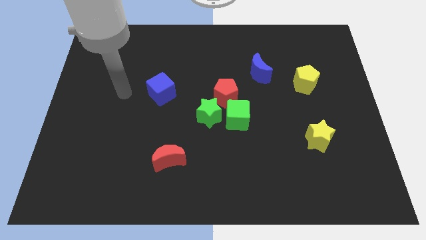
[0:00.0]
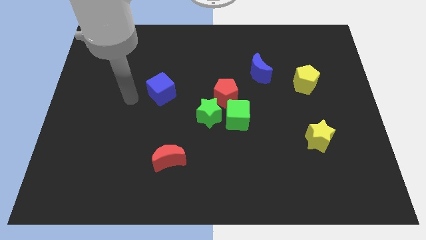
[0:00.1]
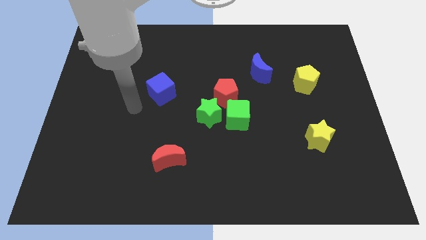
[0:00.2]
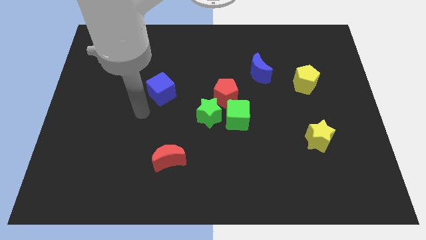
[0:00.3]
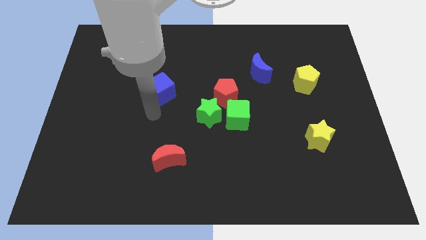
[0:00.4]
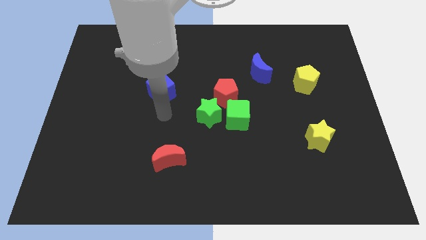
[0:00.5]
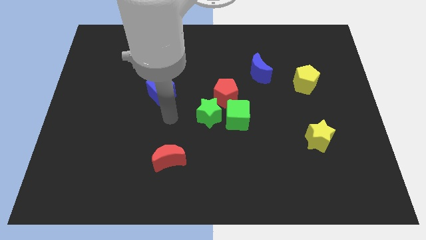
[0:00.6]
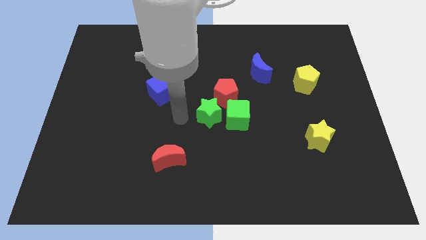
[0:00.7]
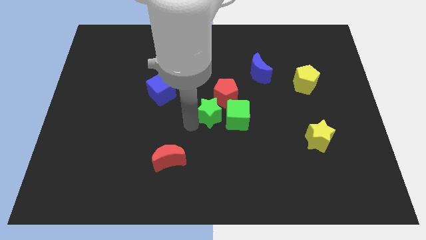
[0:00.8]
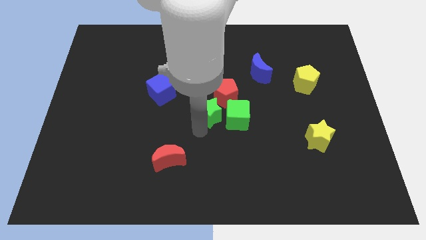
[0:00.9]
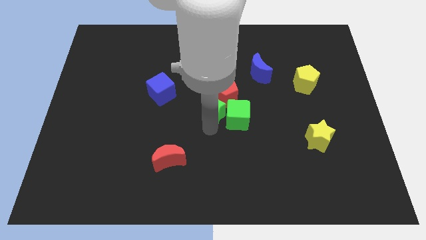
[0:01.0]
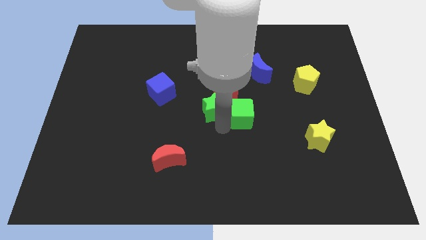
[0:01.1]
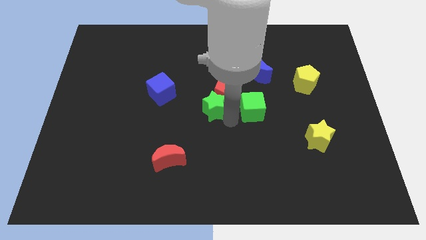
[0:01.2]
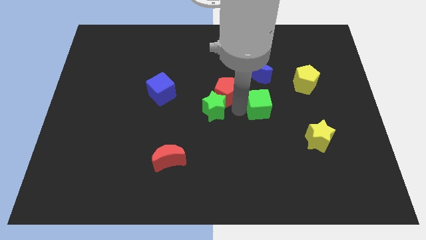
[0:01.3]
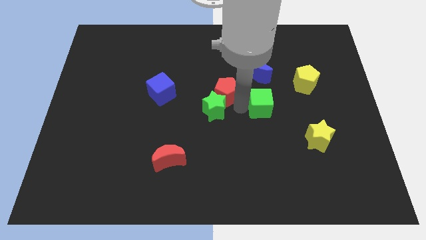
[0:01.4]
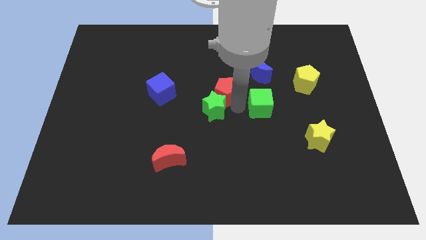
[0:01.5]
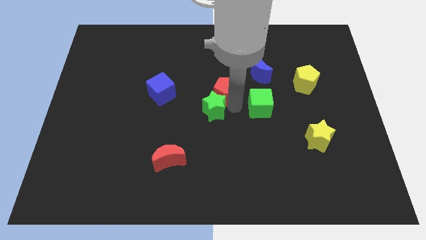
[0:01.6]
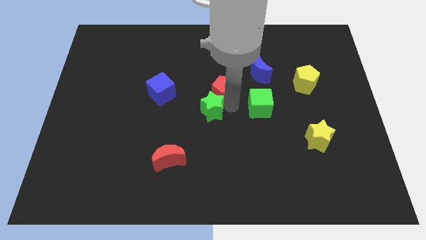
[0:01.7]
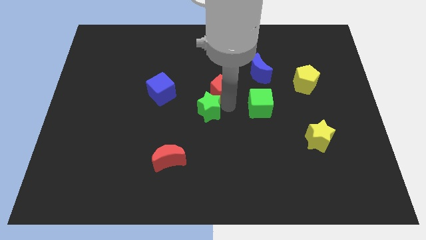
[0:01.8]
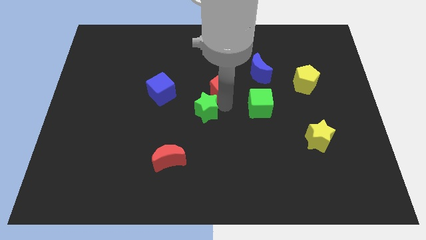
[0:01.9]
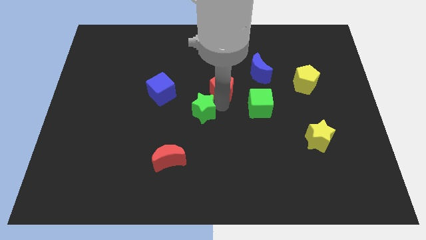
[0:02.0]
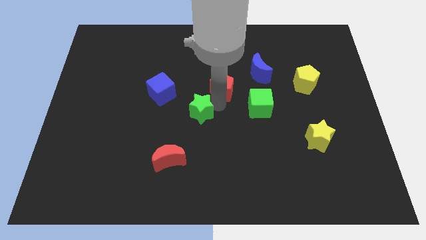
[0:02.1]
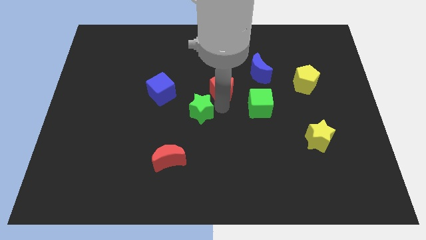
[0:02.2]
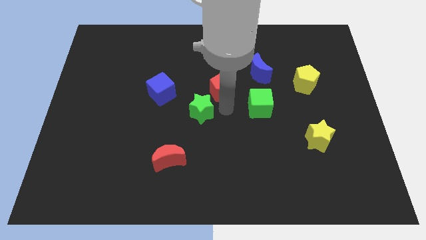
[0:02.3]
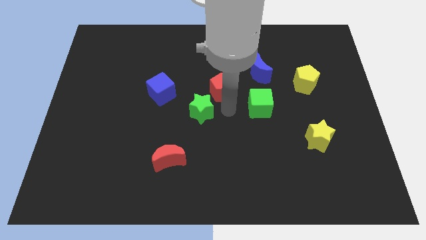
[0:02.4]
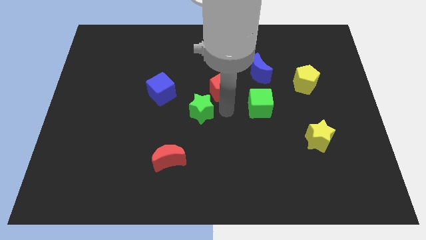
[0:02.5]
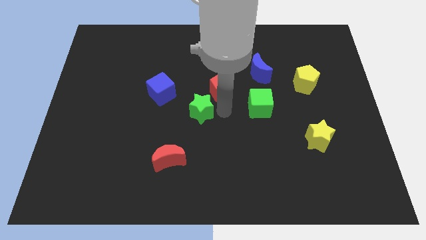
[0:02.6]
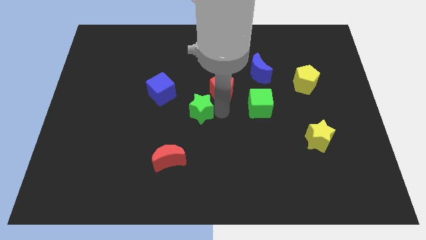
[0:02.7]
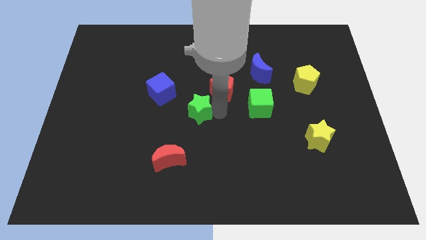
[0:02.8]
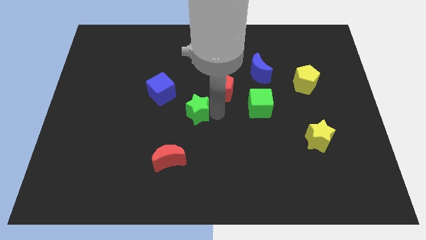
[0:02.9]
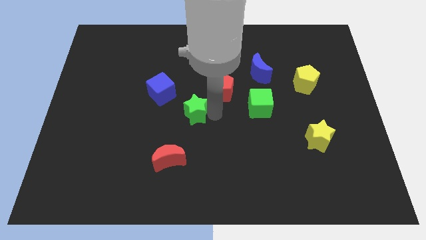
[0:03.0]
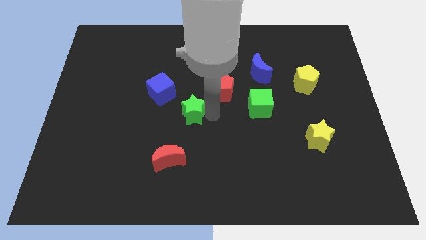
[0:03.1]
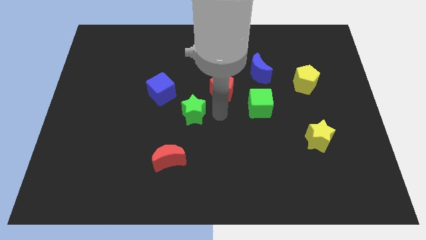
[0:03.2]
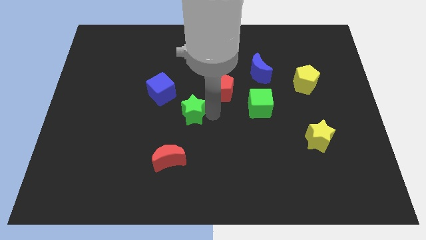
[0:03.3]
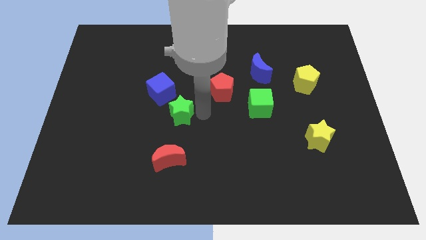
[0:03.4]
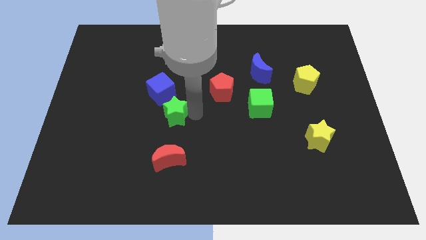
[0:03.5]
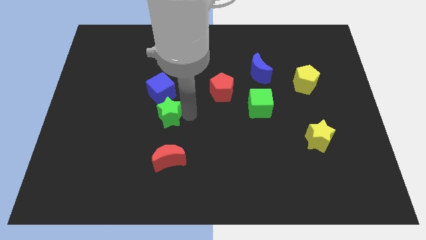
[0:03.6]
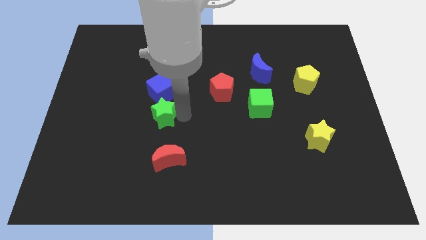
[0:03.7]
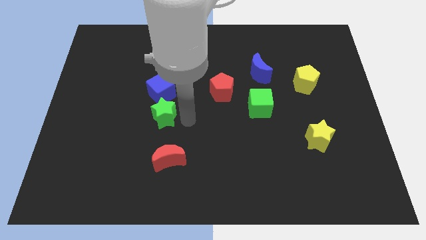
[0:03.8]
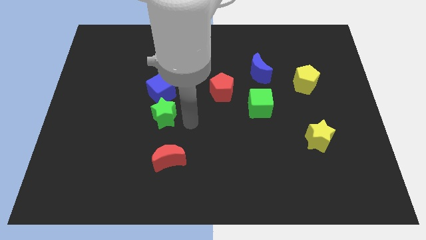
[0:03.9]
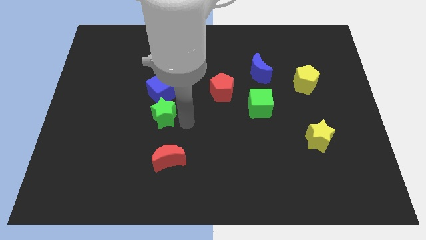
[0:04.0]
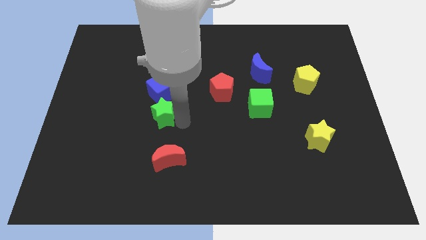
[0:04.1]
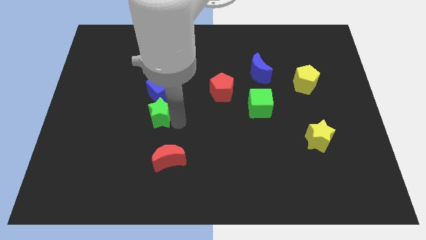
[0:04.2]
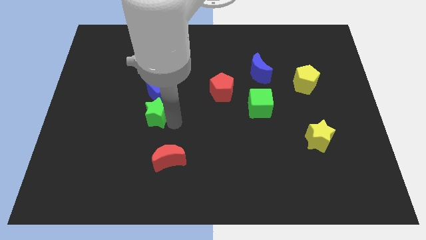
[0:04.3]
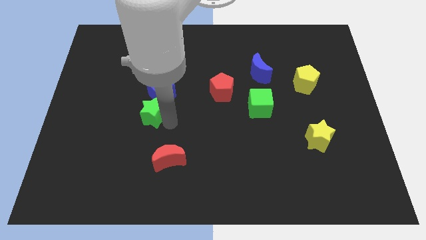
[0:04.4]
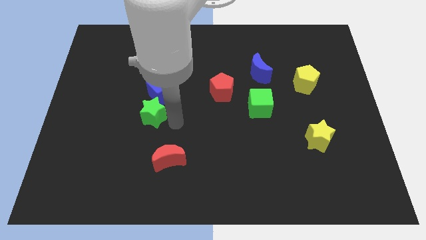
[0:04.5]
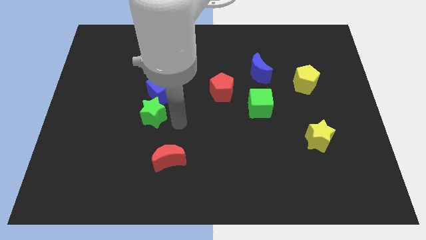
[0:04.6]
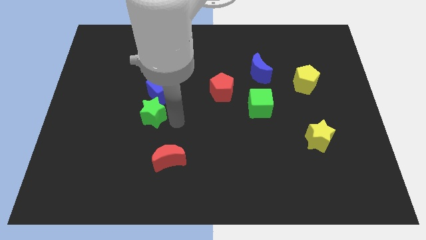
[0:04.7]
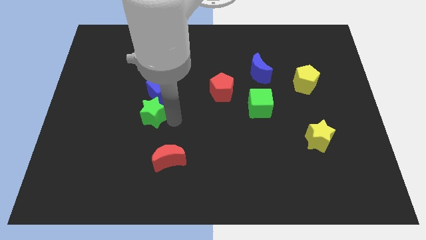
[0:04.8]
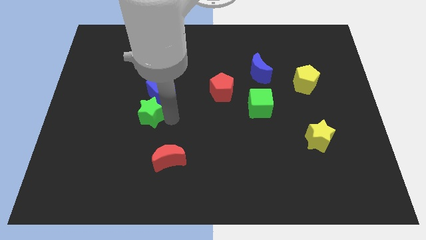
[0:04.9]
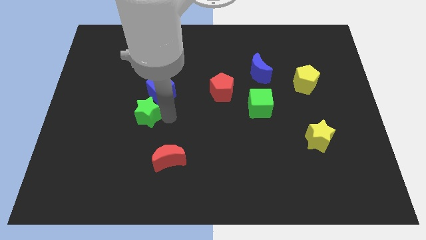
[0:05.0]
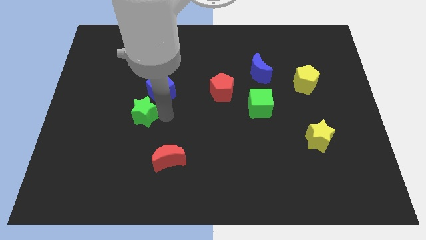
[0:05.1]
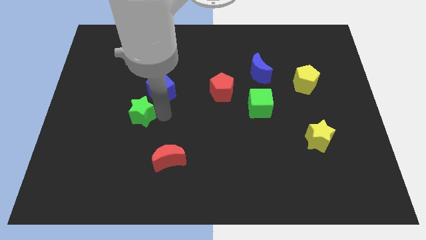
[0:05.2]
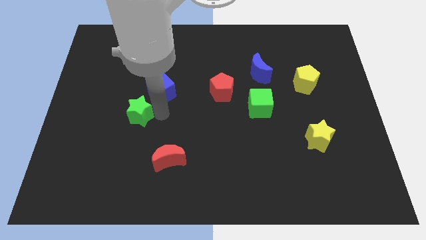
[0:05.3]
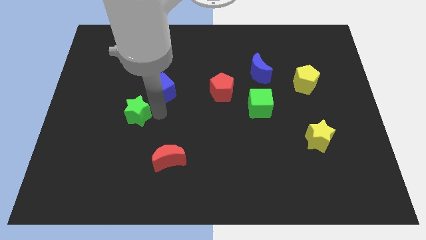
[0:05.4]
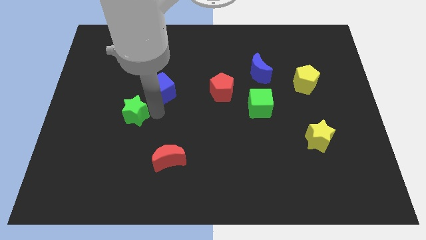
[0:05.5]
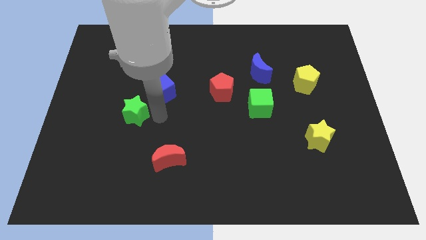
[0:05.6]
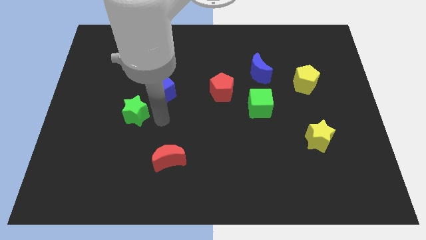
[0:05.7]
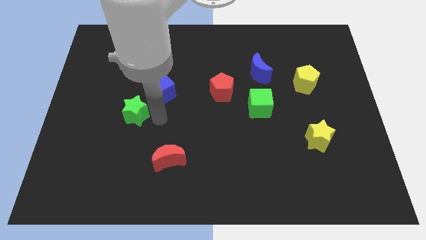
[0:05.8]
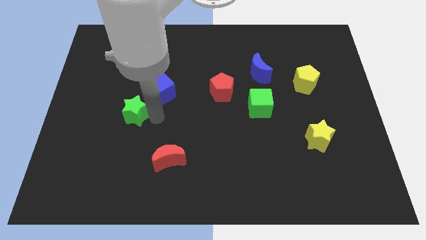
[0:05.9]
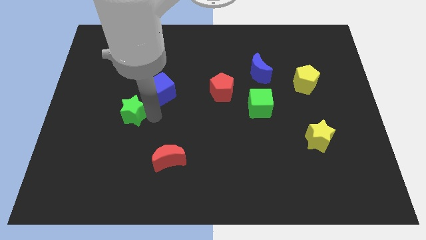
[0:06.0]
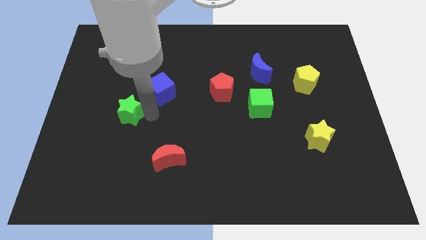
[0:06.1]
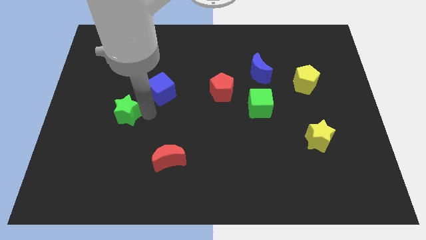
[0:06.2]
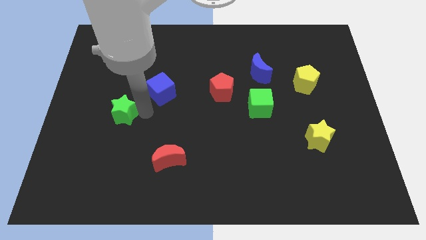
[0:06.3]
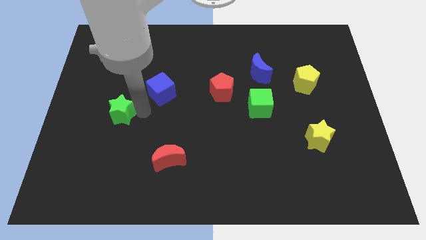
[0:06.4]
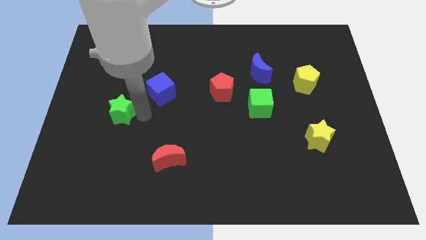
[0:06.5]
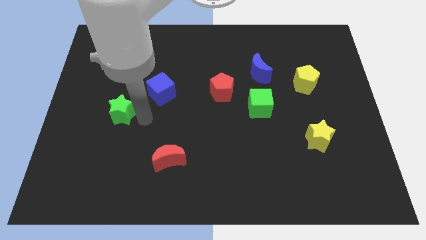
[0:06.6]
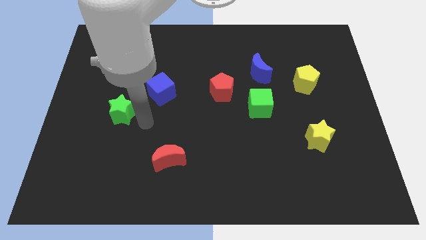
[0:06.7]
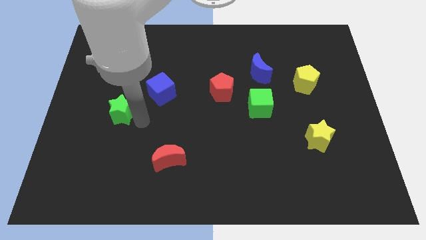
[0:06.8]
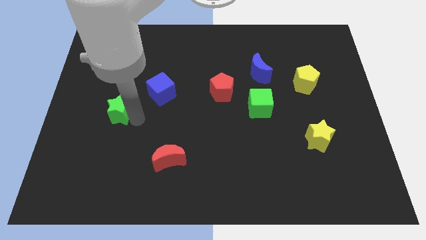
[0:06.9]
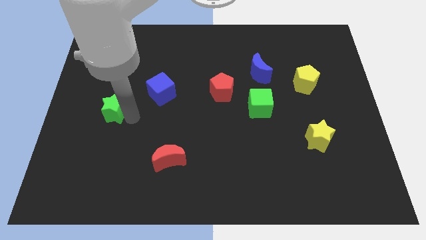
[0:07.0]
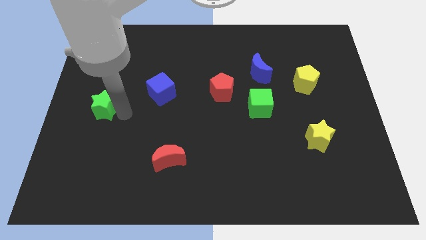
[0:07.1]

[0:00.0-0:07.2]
slide the green star to the left side

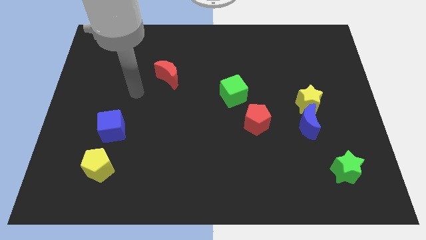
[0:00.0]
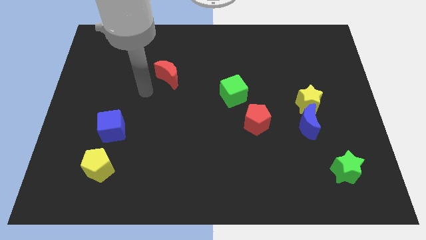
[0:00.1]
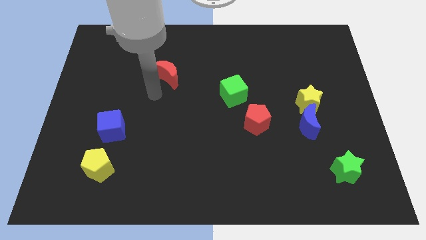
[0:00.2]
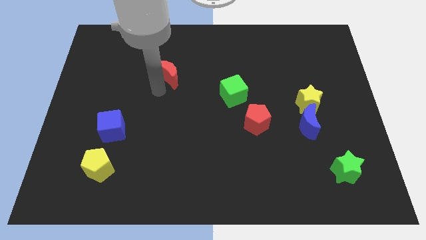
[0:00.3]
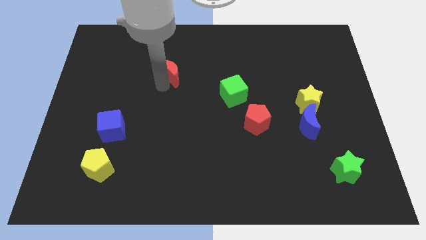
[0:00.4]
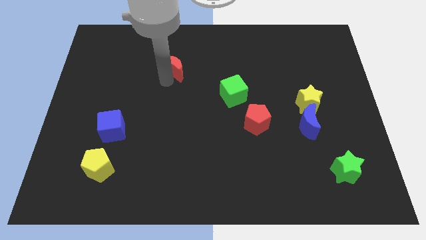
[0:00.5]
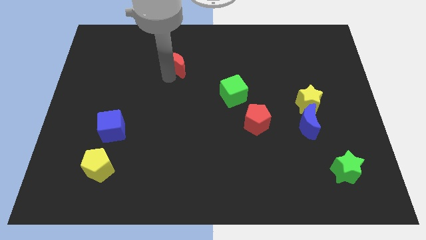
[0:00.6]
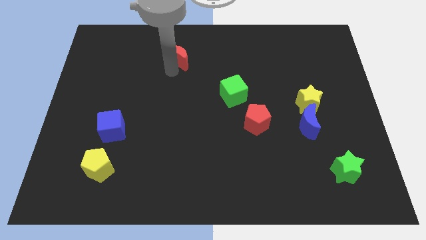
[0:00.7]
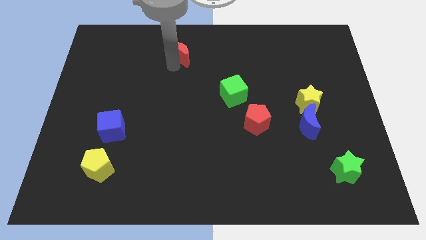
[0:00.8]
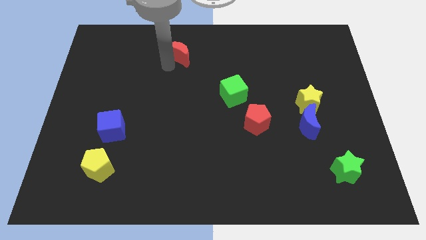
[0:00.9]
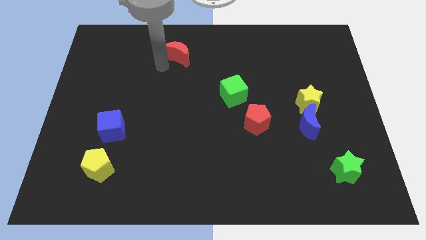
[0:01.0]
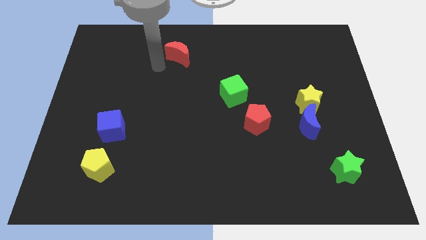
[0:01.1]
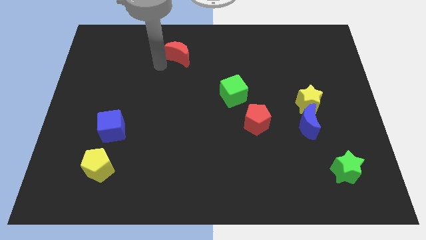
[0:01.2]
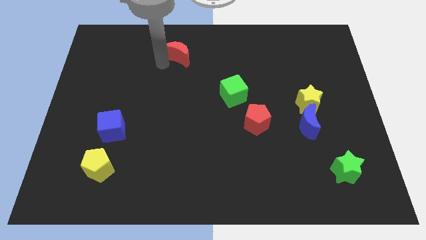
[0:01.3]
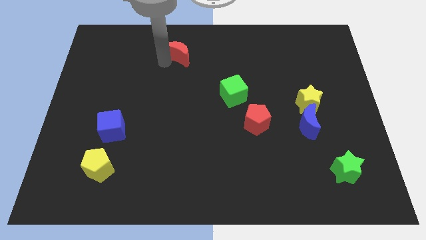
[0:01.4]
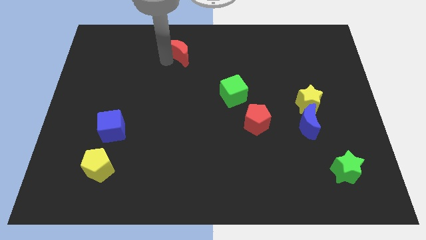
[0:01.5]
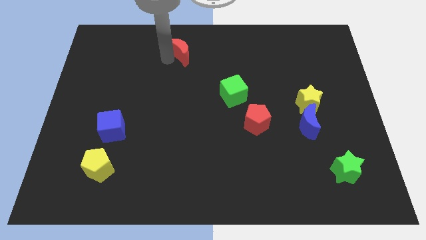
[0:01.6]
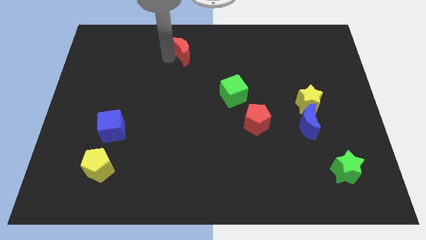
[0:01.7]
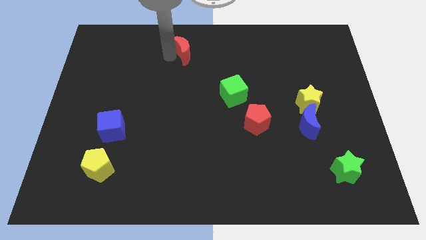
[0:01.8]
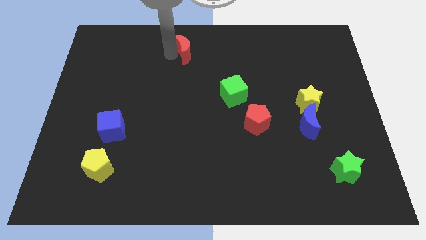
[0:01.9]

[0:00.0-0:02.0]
push the red moon to the top side
